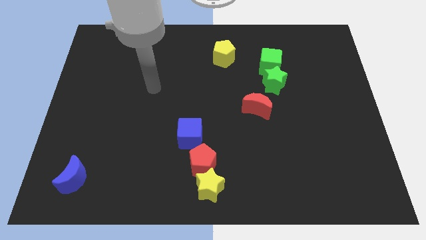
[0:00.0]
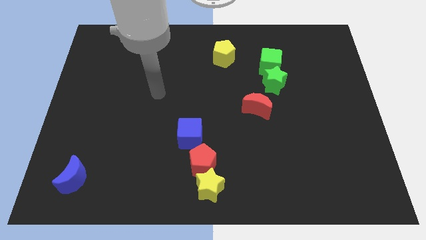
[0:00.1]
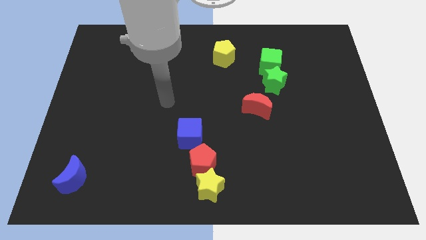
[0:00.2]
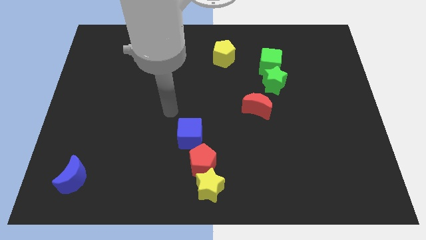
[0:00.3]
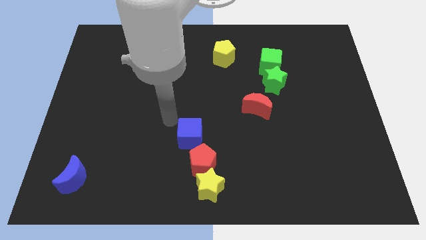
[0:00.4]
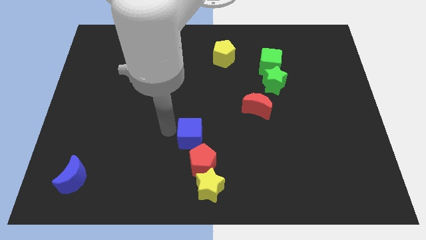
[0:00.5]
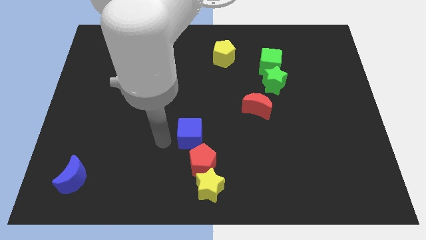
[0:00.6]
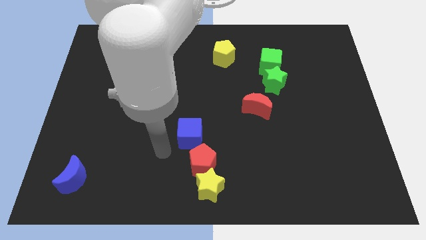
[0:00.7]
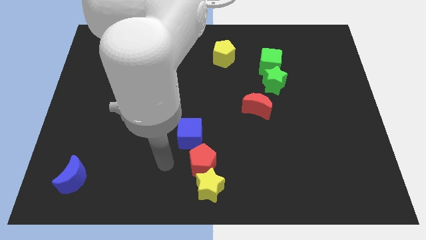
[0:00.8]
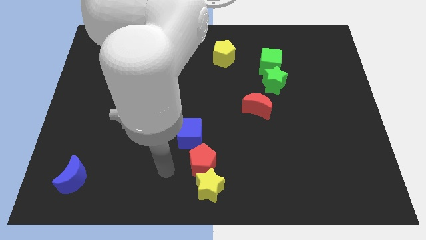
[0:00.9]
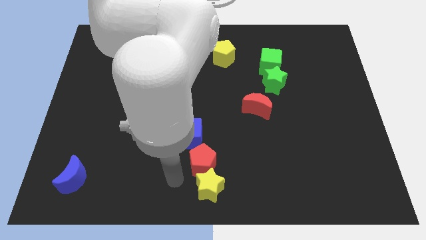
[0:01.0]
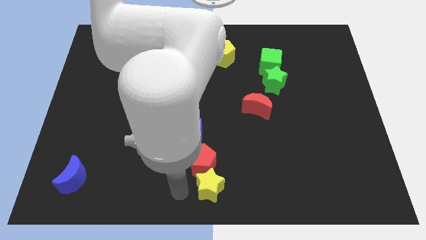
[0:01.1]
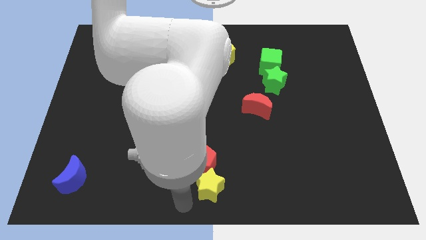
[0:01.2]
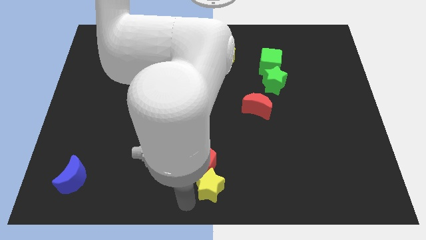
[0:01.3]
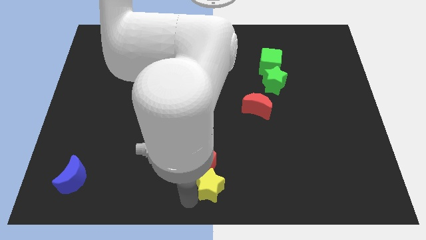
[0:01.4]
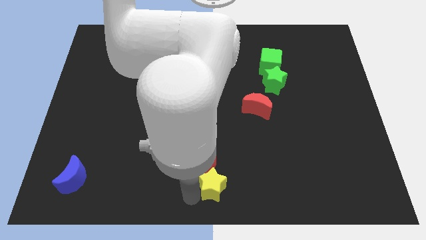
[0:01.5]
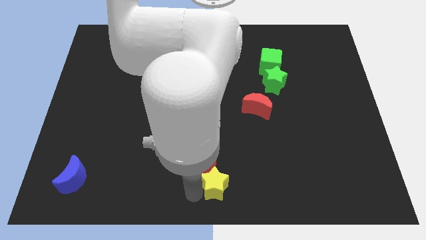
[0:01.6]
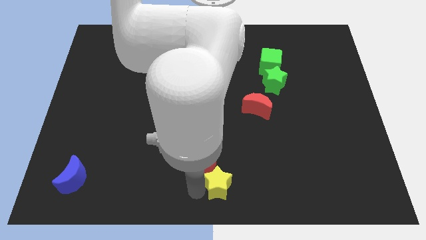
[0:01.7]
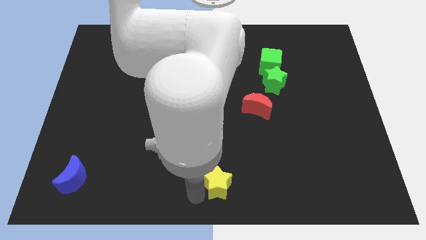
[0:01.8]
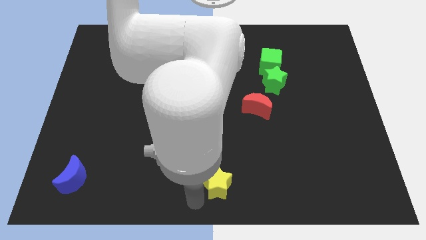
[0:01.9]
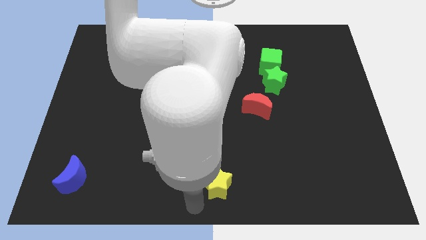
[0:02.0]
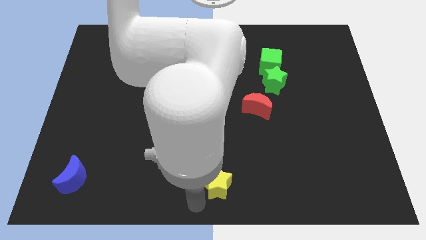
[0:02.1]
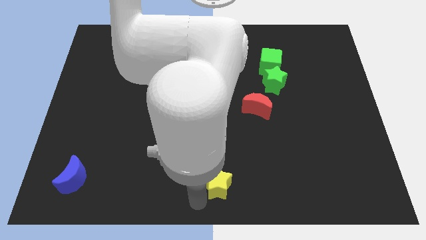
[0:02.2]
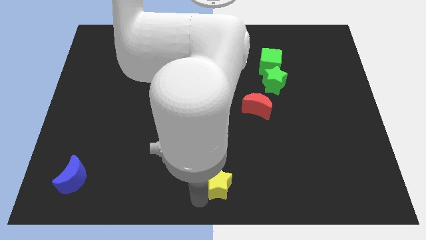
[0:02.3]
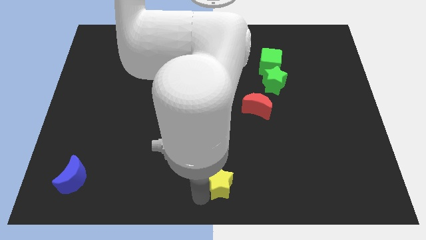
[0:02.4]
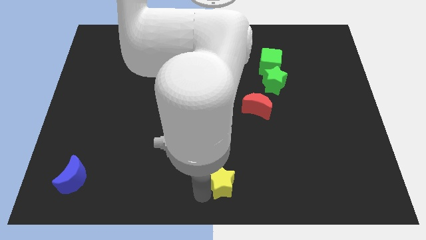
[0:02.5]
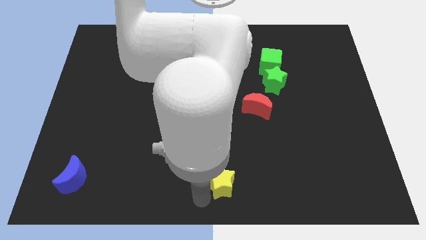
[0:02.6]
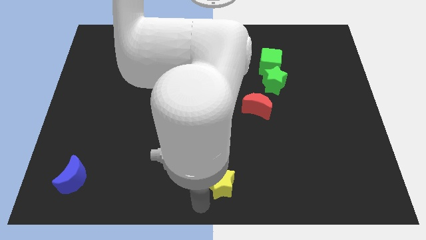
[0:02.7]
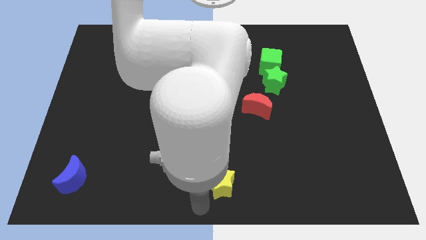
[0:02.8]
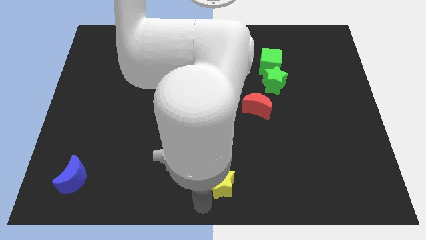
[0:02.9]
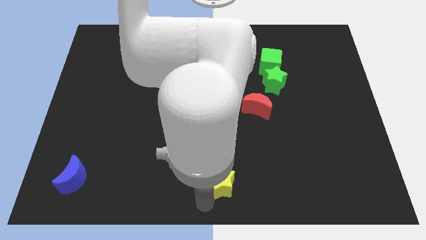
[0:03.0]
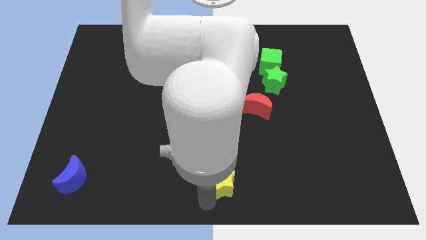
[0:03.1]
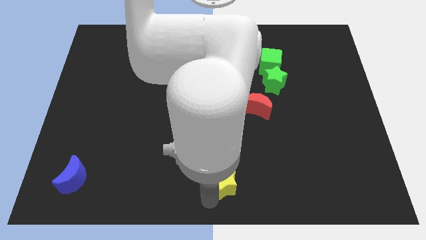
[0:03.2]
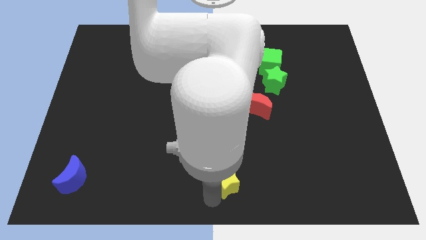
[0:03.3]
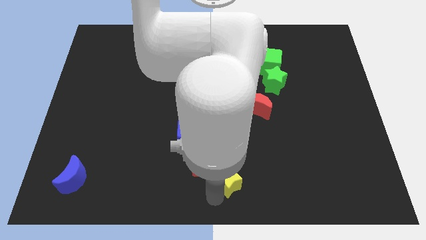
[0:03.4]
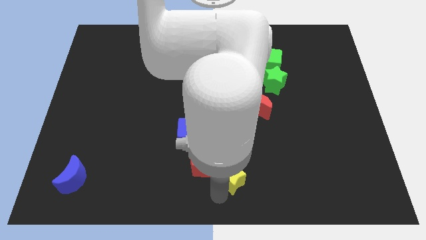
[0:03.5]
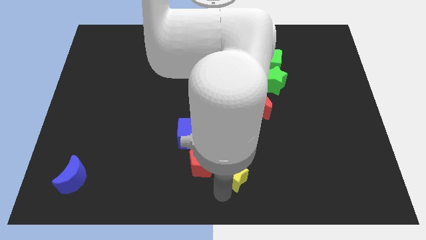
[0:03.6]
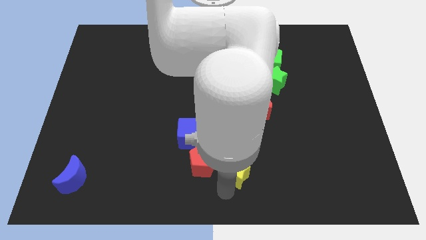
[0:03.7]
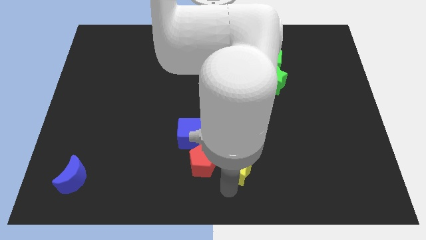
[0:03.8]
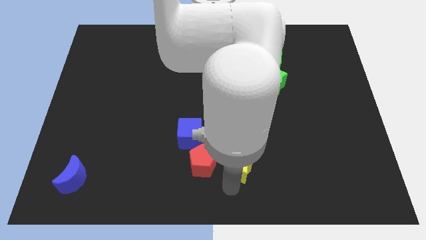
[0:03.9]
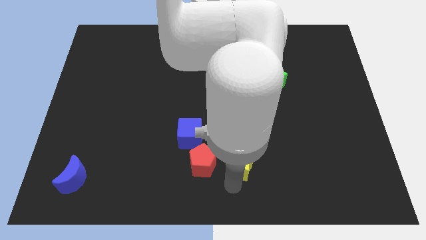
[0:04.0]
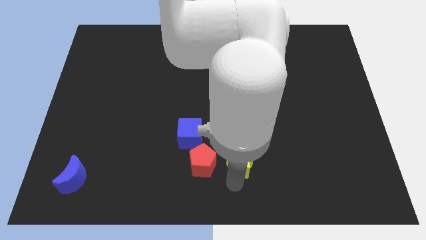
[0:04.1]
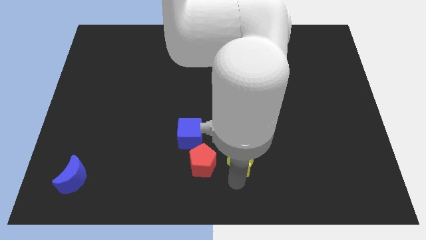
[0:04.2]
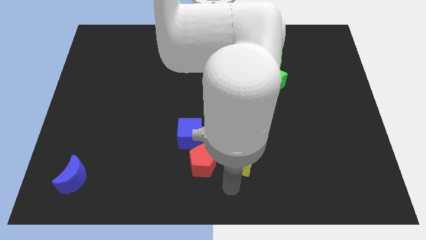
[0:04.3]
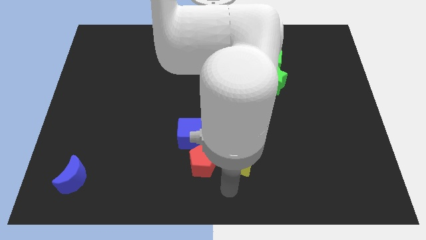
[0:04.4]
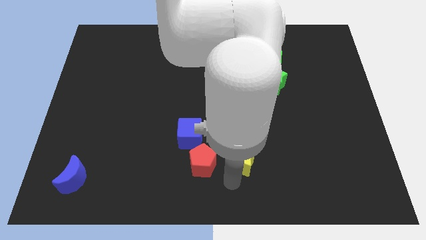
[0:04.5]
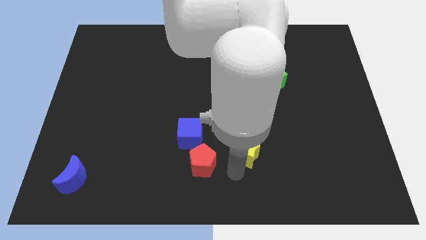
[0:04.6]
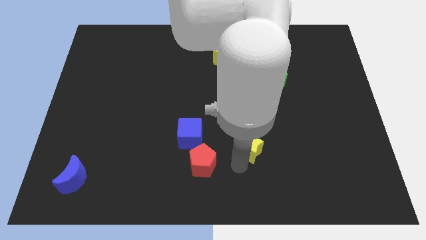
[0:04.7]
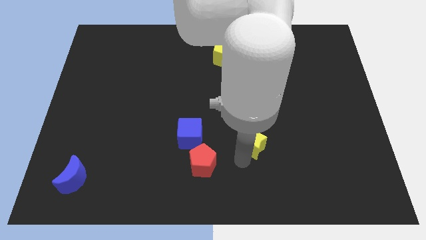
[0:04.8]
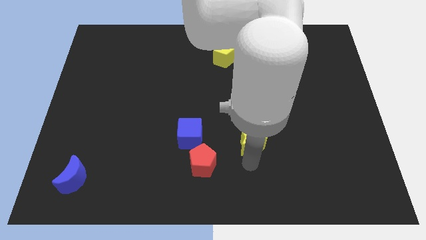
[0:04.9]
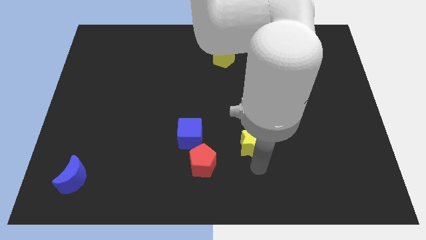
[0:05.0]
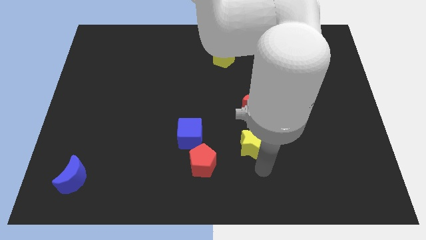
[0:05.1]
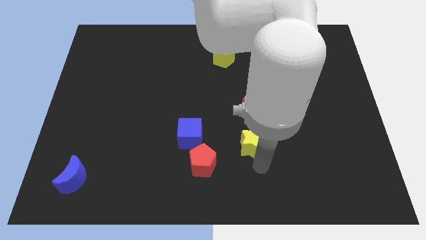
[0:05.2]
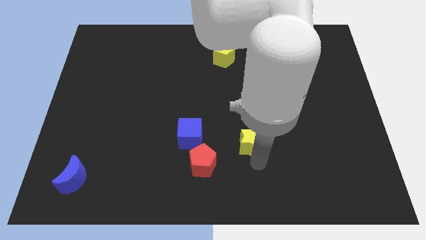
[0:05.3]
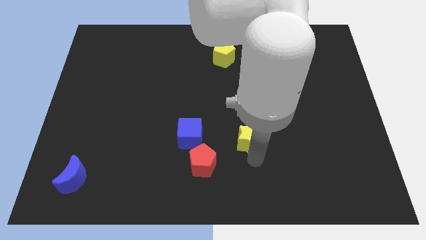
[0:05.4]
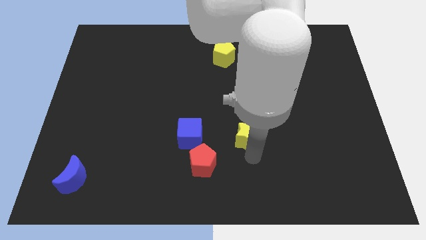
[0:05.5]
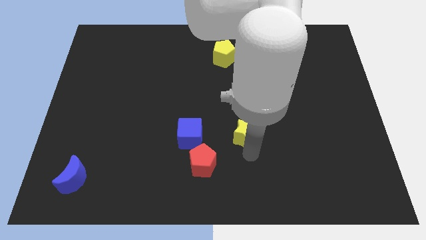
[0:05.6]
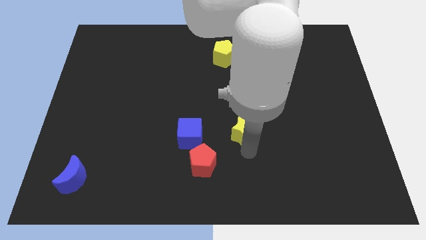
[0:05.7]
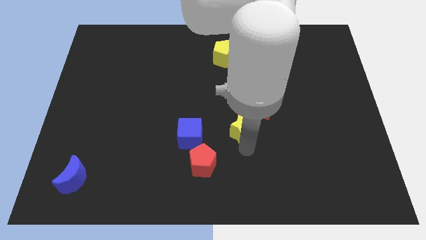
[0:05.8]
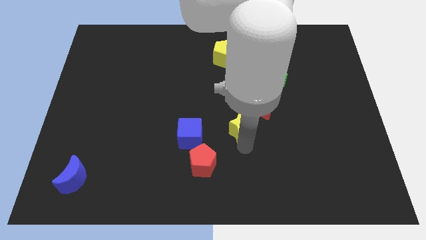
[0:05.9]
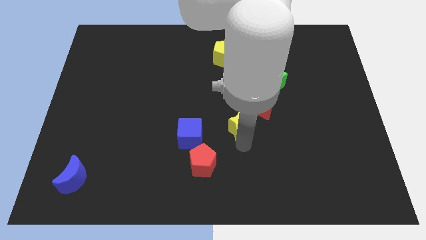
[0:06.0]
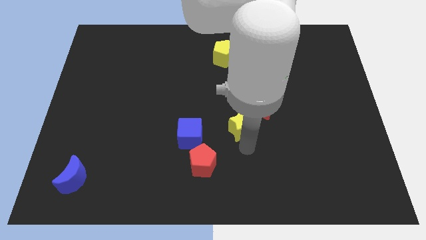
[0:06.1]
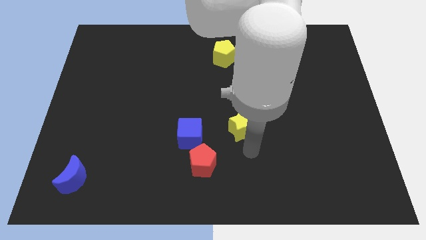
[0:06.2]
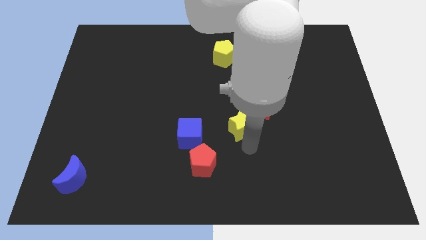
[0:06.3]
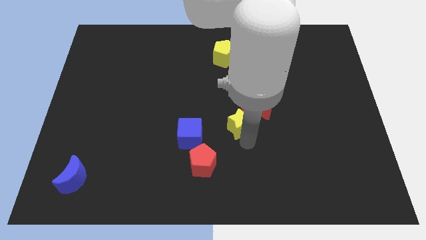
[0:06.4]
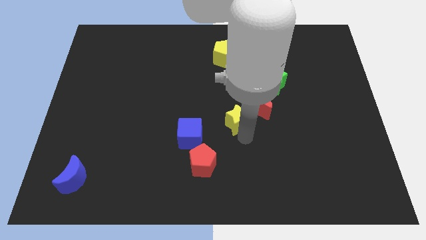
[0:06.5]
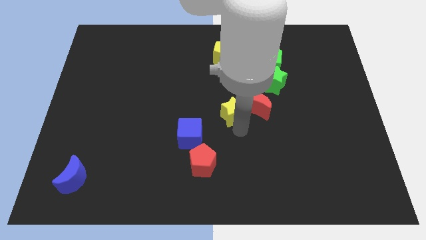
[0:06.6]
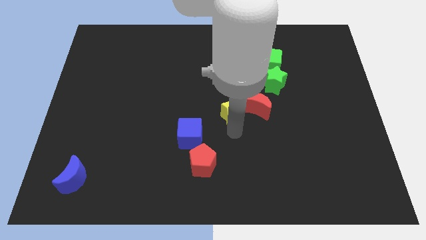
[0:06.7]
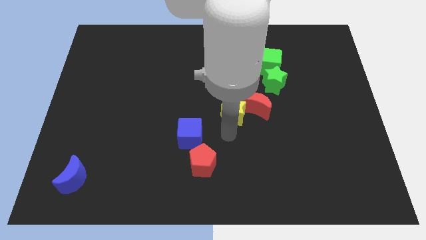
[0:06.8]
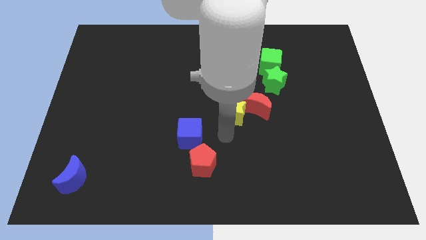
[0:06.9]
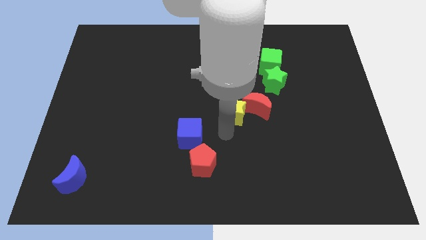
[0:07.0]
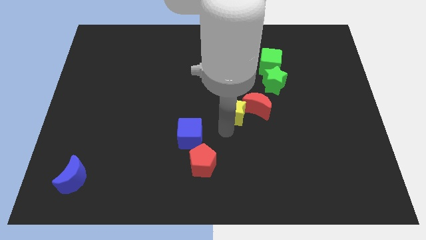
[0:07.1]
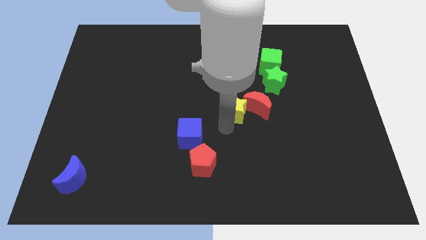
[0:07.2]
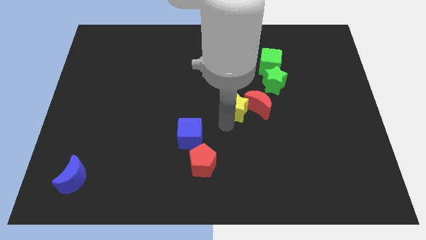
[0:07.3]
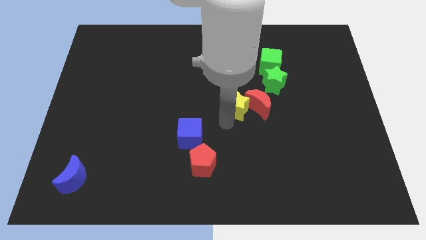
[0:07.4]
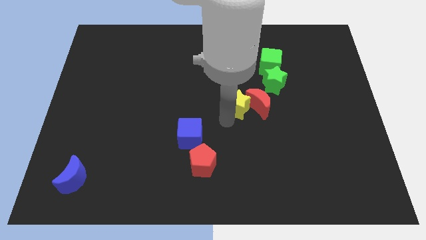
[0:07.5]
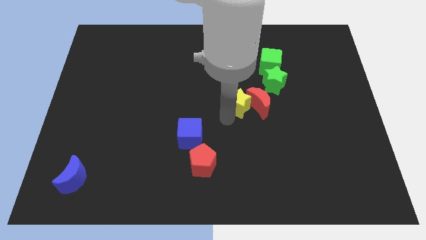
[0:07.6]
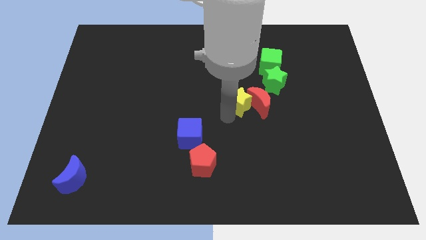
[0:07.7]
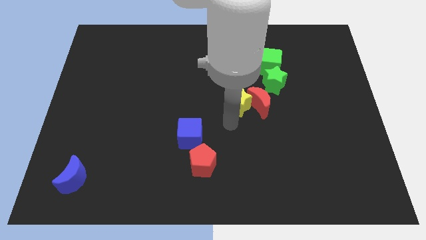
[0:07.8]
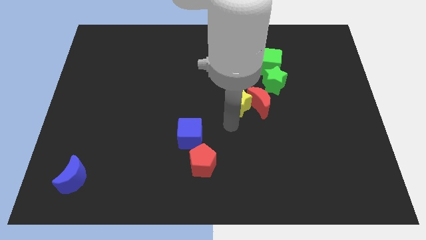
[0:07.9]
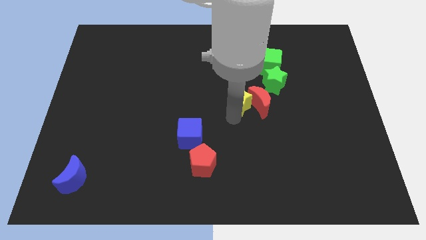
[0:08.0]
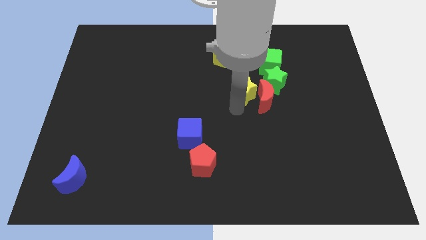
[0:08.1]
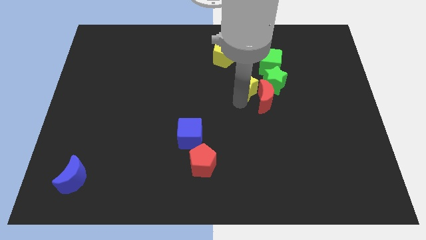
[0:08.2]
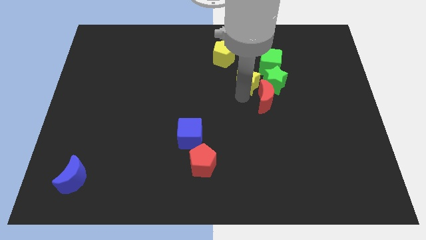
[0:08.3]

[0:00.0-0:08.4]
slide the yellow star to the top left of the green star
